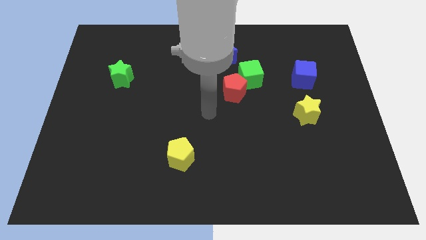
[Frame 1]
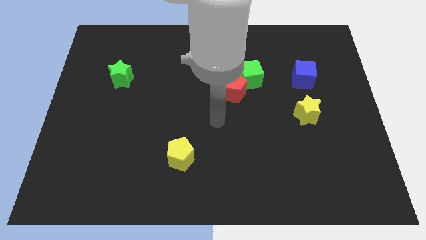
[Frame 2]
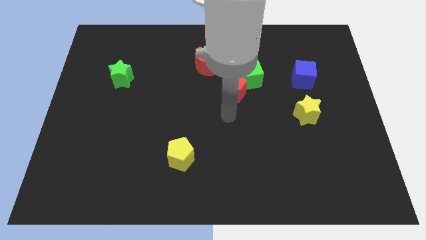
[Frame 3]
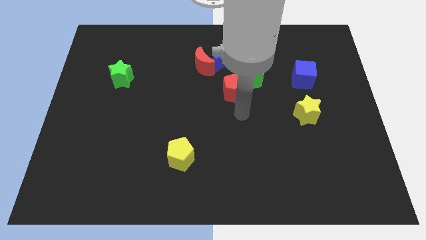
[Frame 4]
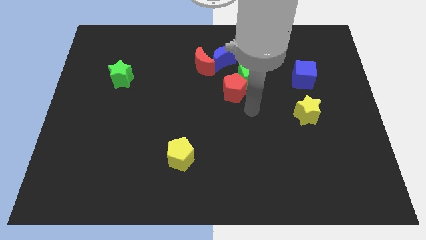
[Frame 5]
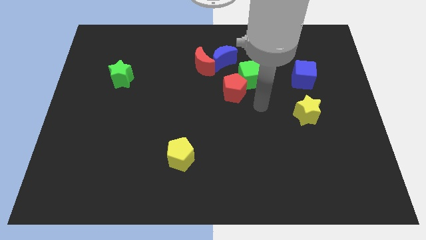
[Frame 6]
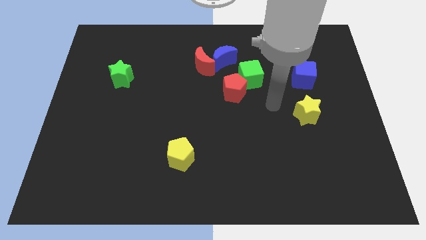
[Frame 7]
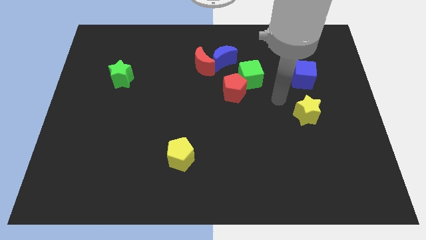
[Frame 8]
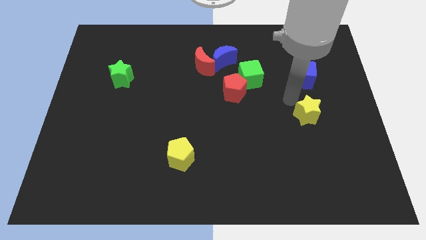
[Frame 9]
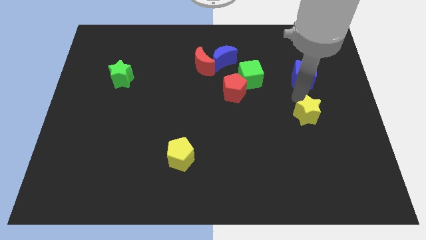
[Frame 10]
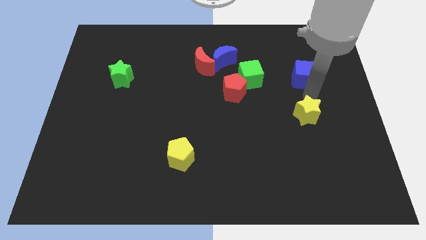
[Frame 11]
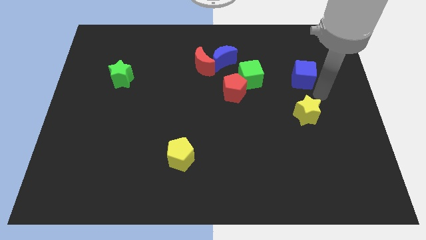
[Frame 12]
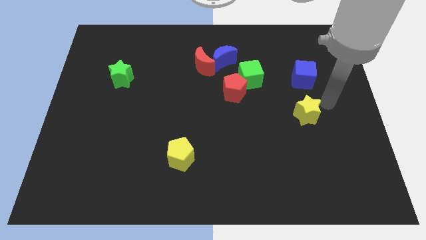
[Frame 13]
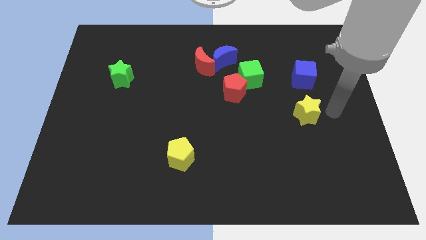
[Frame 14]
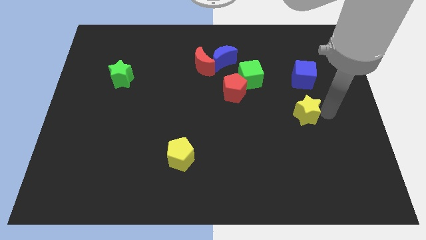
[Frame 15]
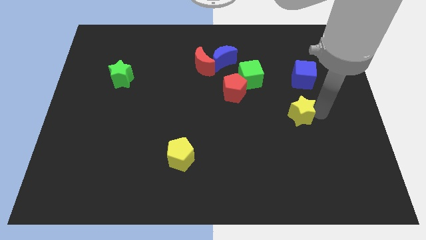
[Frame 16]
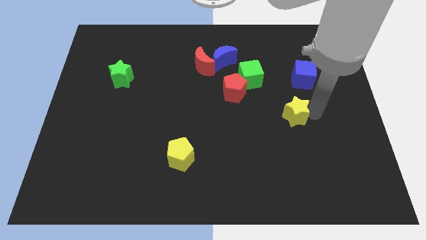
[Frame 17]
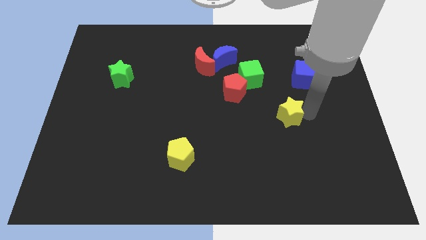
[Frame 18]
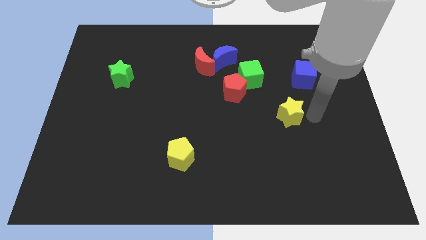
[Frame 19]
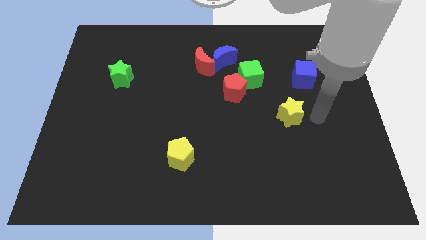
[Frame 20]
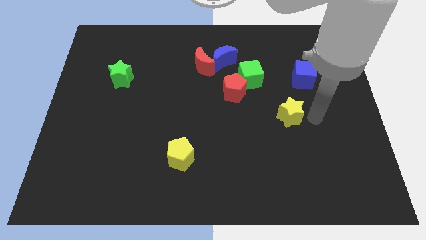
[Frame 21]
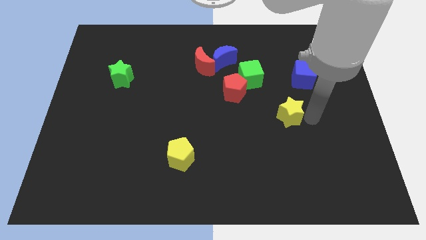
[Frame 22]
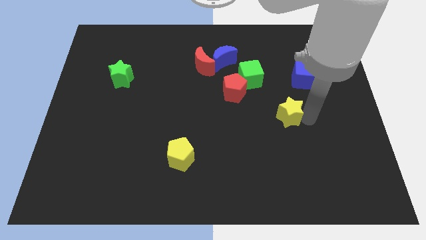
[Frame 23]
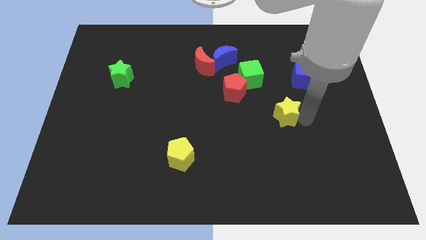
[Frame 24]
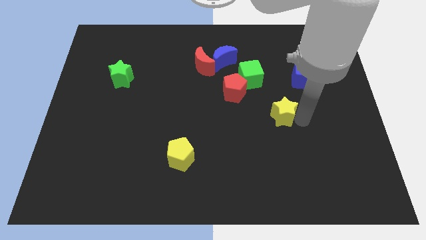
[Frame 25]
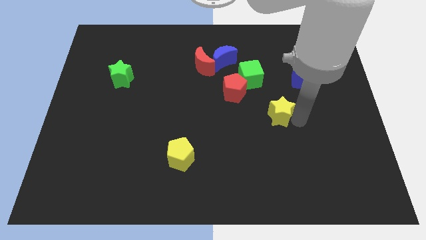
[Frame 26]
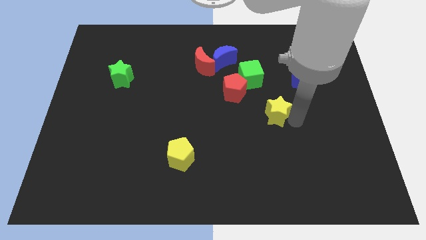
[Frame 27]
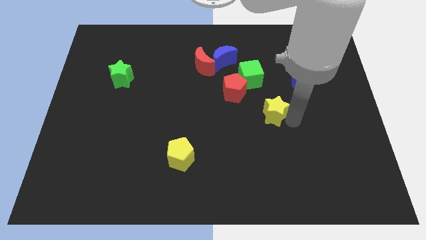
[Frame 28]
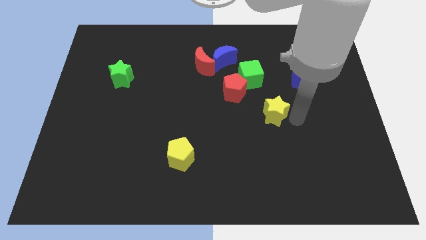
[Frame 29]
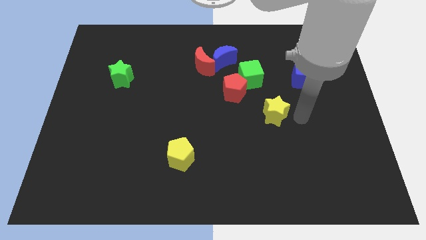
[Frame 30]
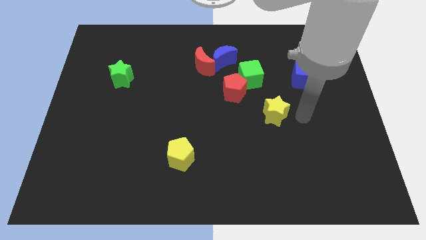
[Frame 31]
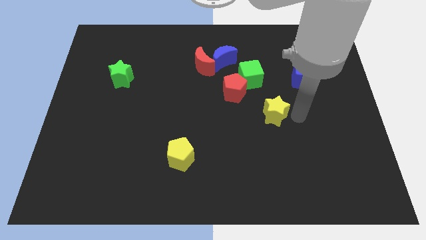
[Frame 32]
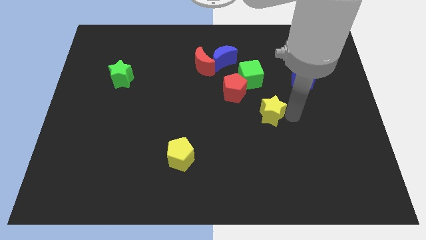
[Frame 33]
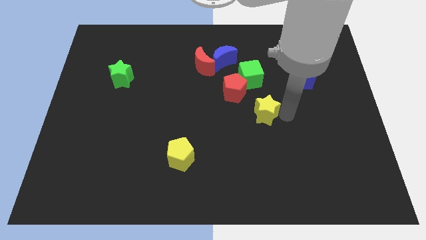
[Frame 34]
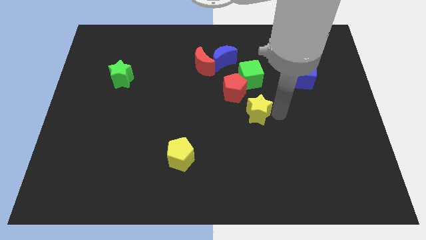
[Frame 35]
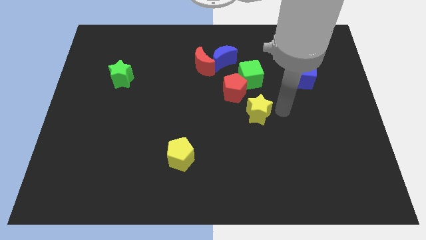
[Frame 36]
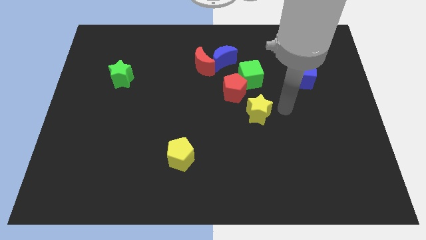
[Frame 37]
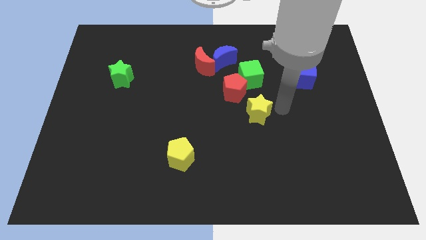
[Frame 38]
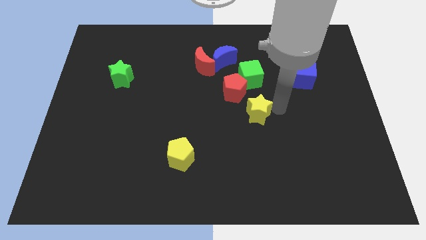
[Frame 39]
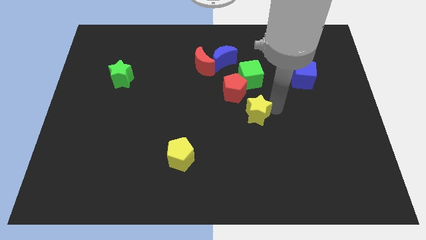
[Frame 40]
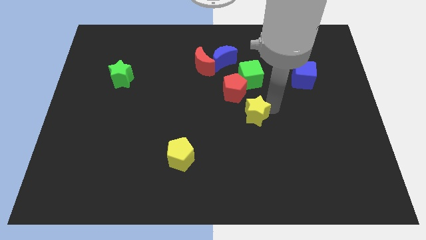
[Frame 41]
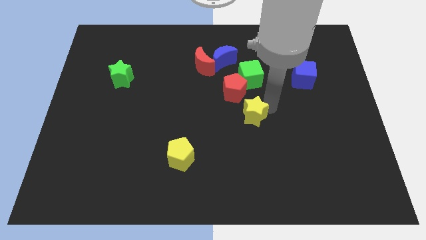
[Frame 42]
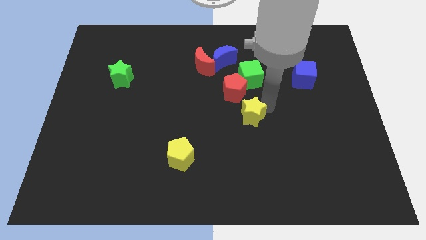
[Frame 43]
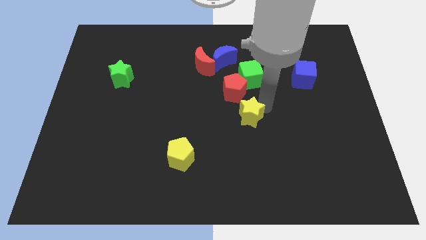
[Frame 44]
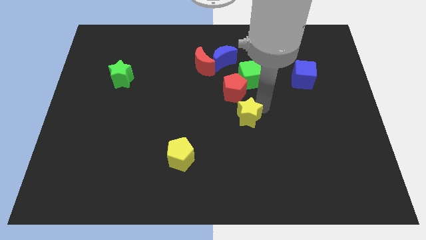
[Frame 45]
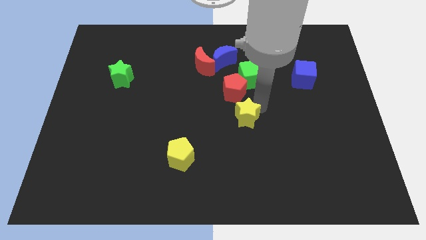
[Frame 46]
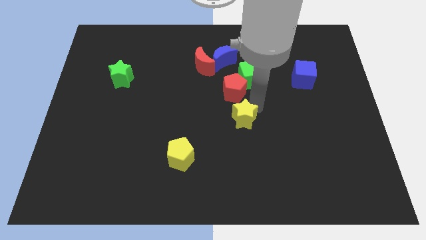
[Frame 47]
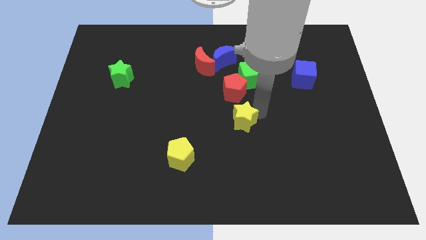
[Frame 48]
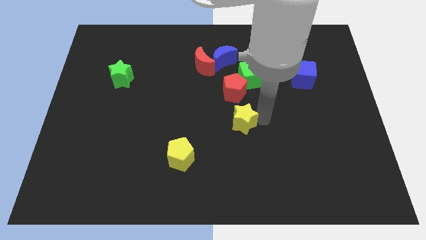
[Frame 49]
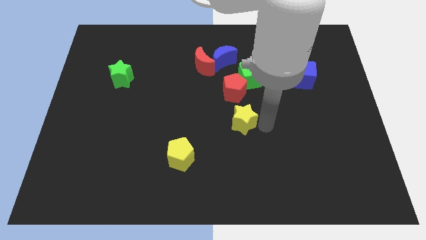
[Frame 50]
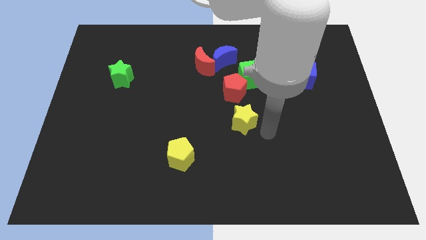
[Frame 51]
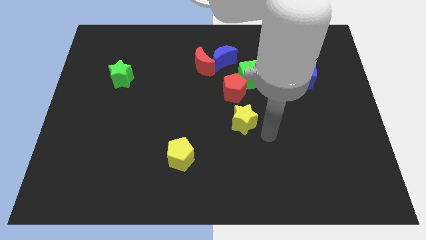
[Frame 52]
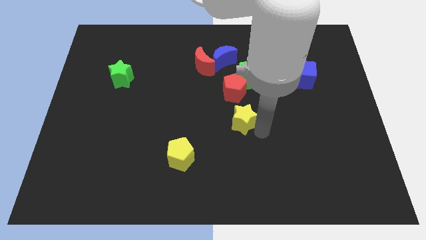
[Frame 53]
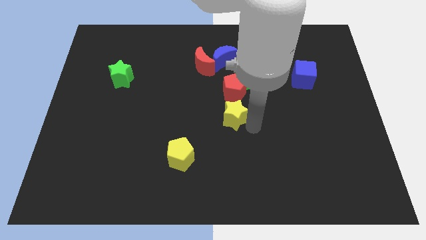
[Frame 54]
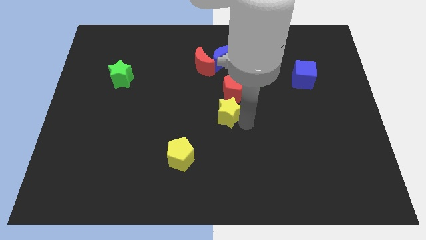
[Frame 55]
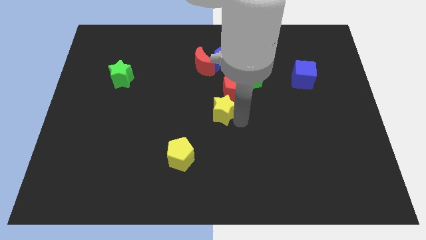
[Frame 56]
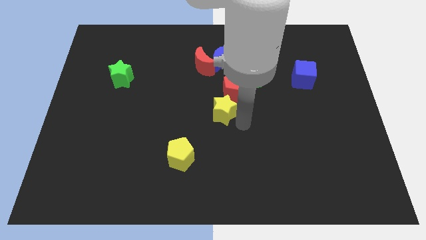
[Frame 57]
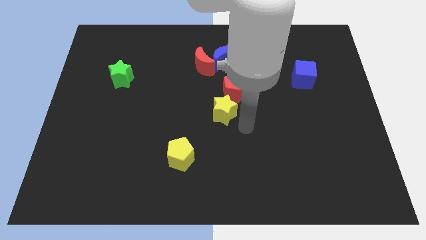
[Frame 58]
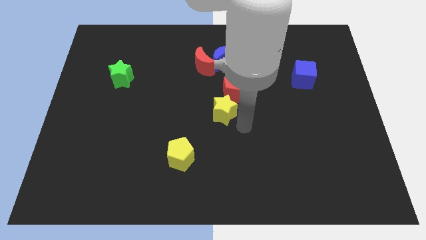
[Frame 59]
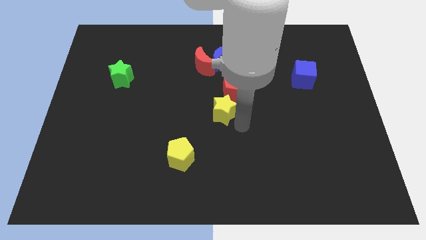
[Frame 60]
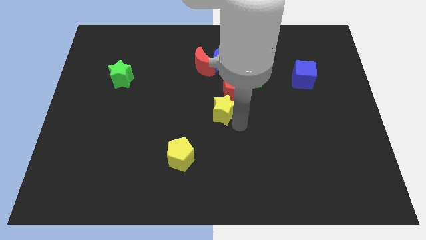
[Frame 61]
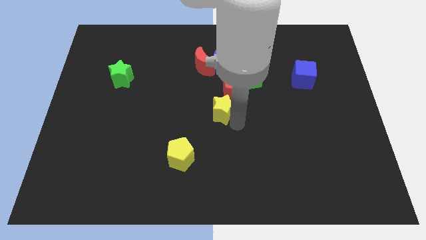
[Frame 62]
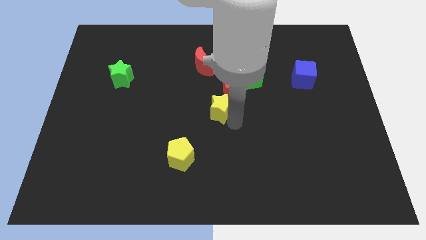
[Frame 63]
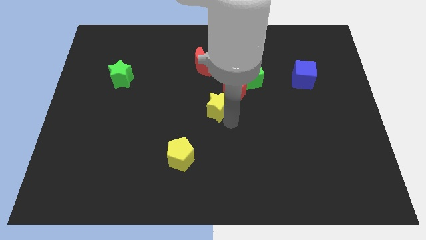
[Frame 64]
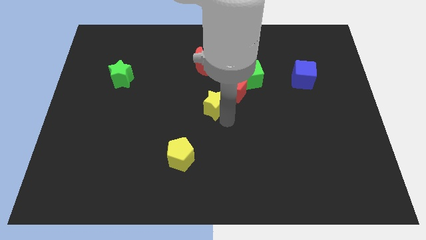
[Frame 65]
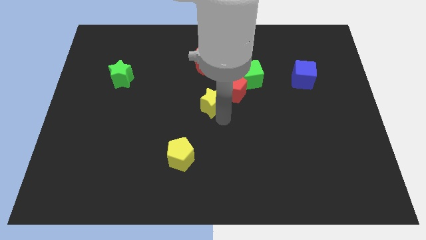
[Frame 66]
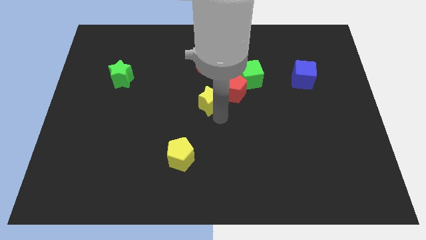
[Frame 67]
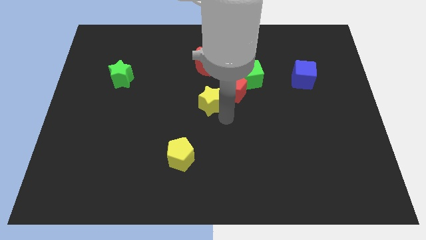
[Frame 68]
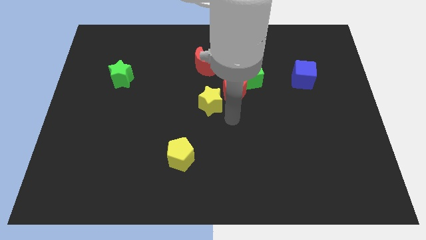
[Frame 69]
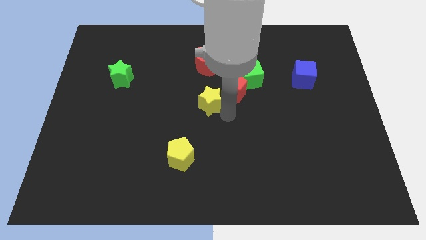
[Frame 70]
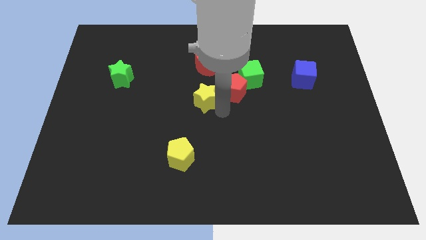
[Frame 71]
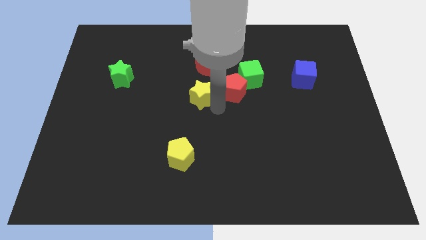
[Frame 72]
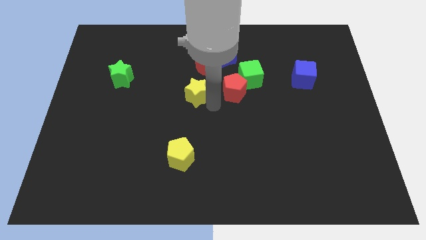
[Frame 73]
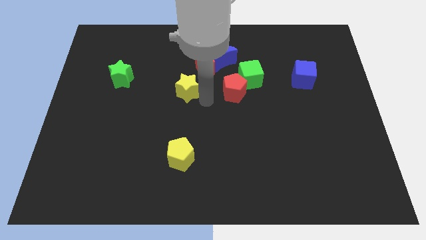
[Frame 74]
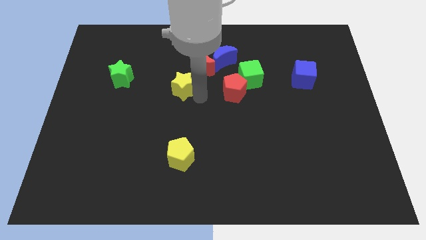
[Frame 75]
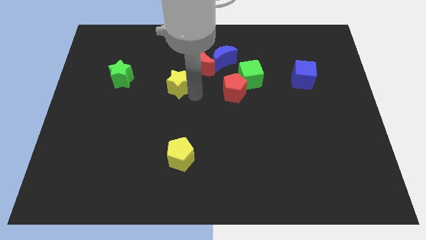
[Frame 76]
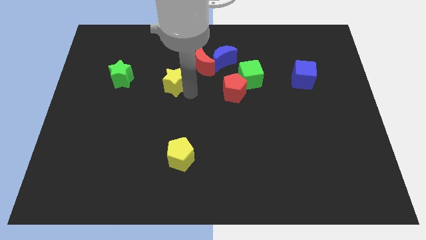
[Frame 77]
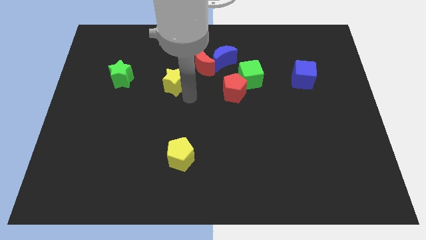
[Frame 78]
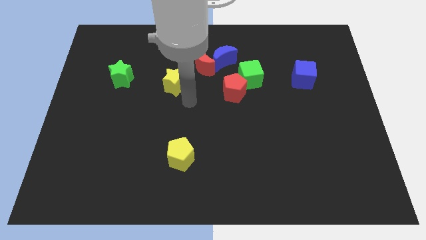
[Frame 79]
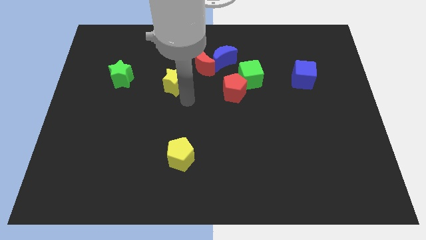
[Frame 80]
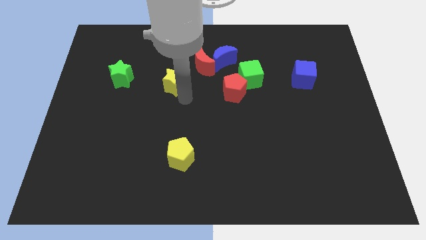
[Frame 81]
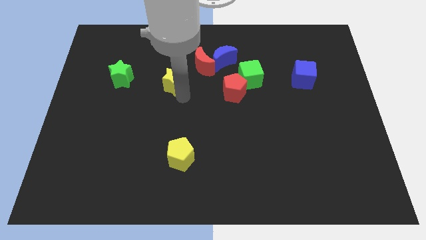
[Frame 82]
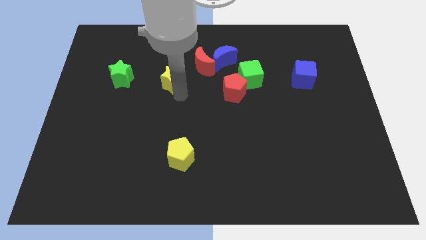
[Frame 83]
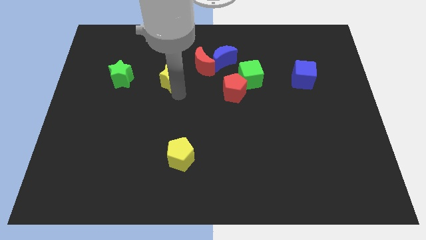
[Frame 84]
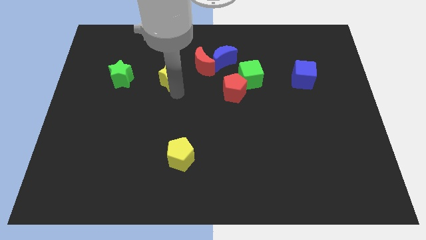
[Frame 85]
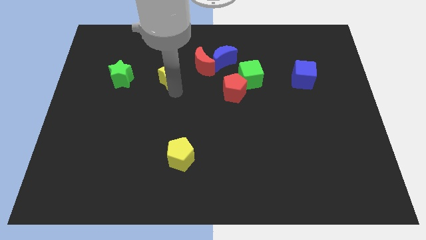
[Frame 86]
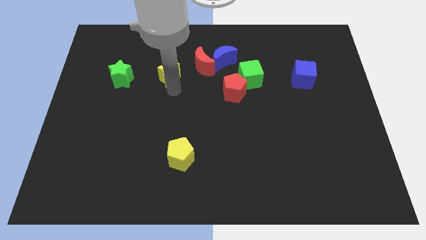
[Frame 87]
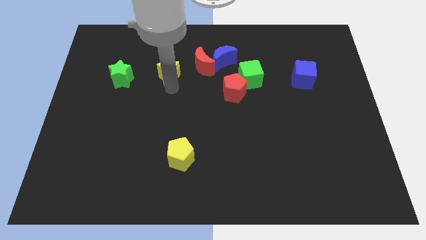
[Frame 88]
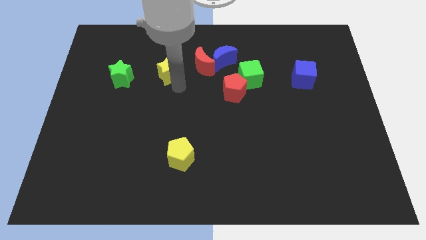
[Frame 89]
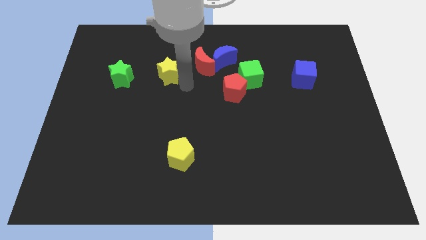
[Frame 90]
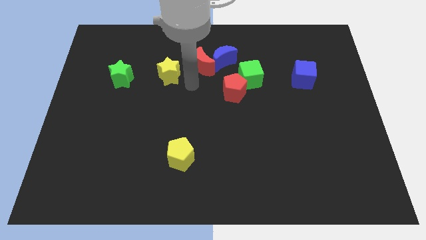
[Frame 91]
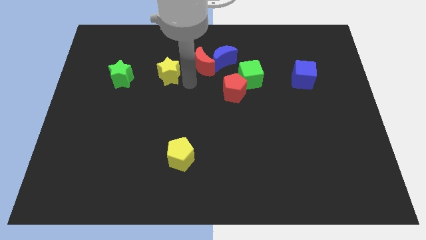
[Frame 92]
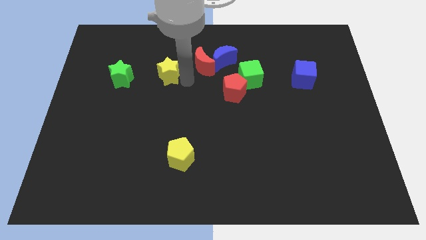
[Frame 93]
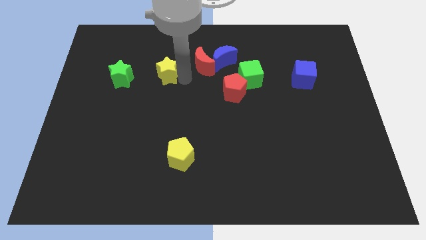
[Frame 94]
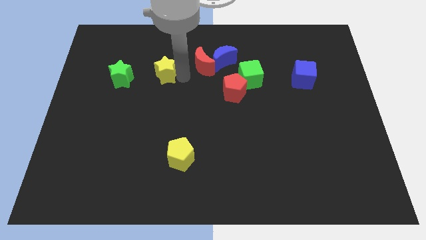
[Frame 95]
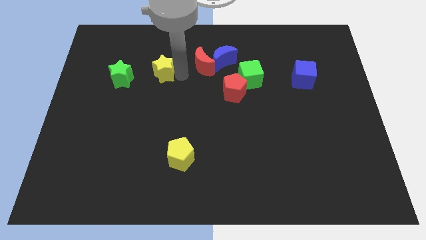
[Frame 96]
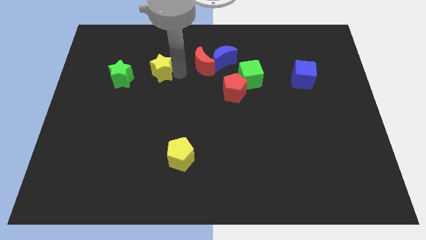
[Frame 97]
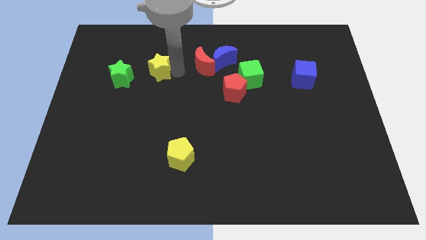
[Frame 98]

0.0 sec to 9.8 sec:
move the yellow star to the top right side of the green star
